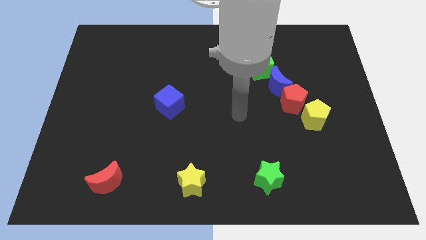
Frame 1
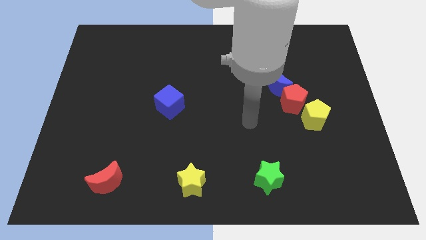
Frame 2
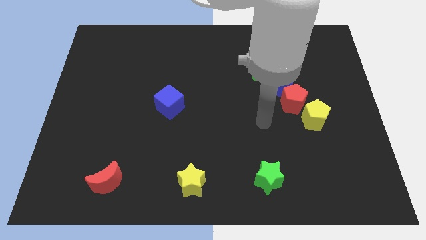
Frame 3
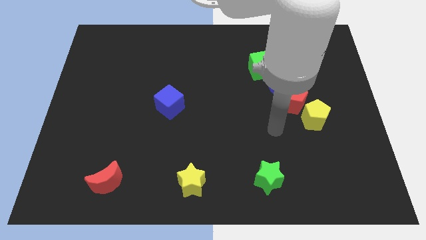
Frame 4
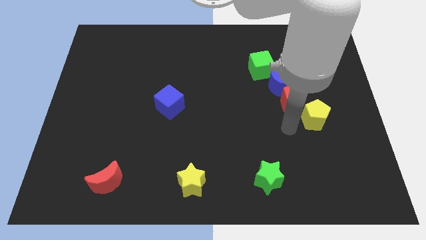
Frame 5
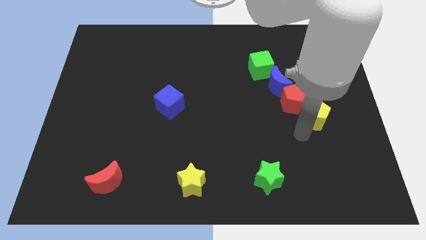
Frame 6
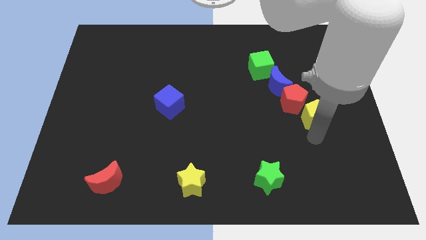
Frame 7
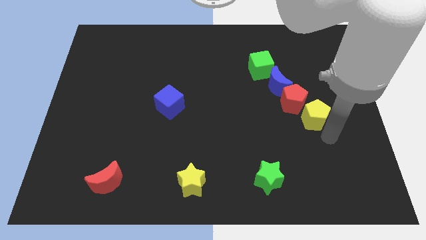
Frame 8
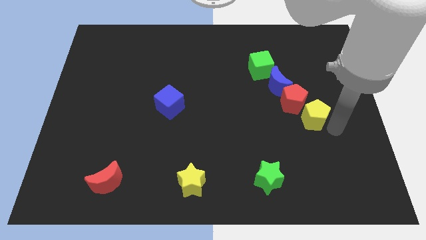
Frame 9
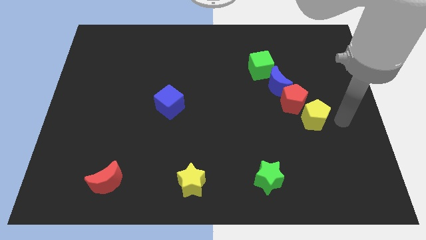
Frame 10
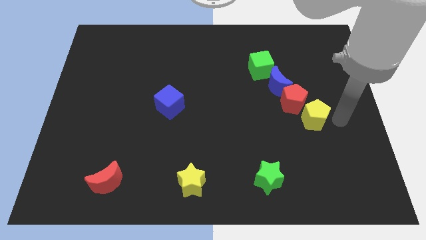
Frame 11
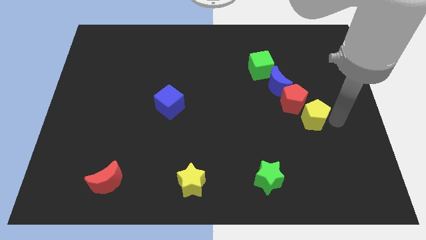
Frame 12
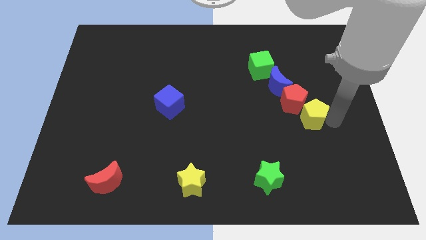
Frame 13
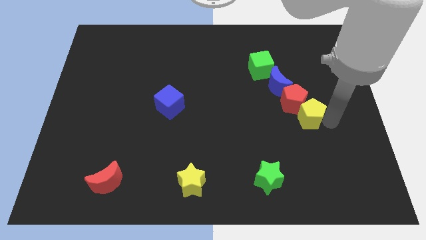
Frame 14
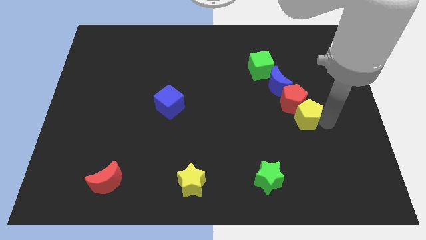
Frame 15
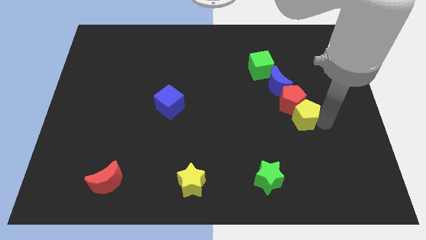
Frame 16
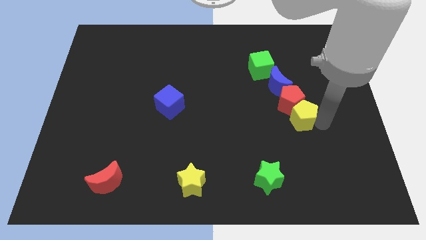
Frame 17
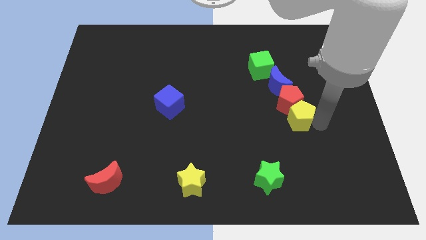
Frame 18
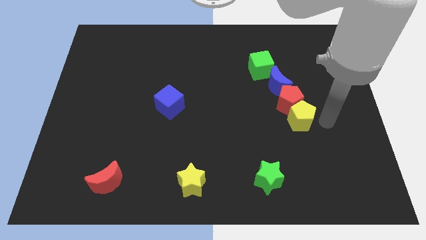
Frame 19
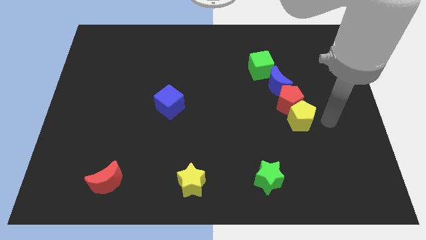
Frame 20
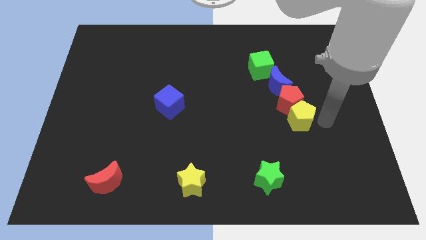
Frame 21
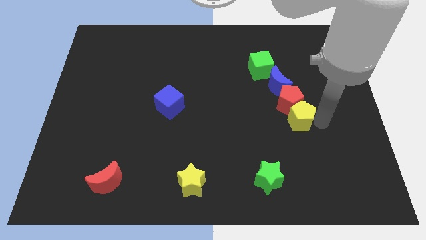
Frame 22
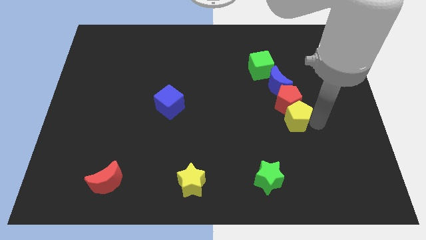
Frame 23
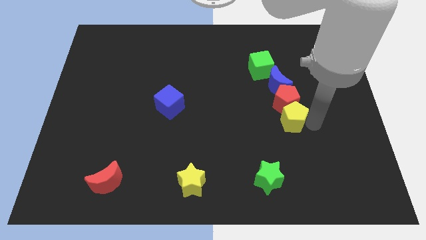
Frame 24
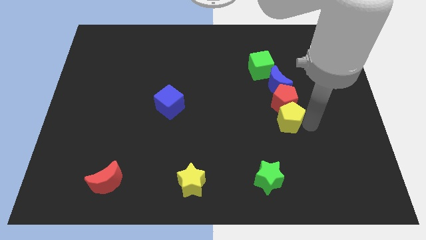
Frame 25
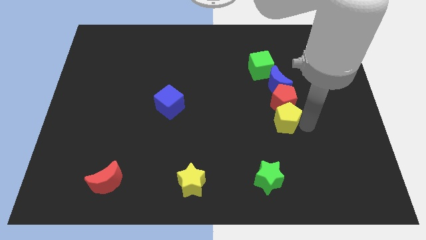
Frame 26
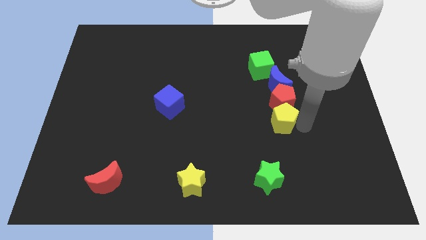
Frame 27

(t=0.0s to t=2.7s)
push the yellow pentagon left slightly

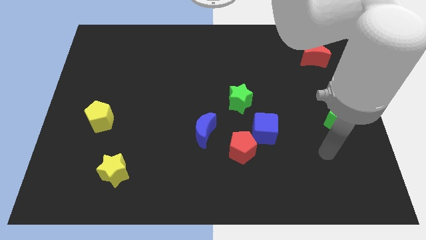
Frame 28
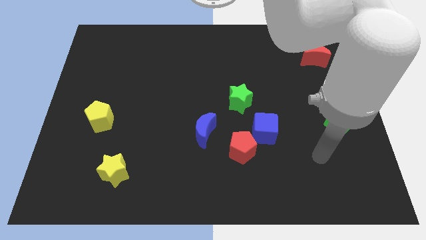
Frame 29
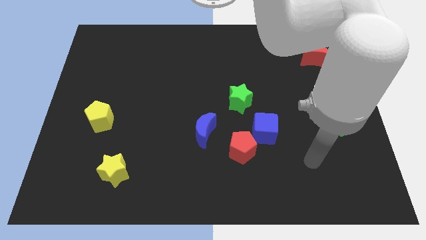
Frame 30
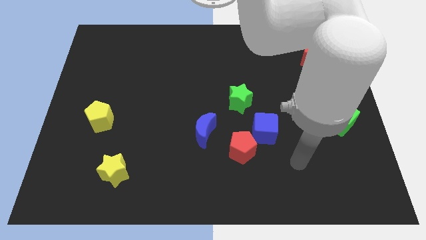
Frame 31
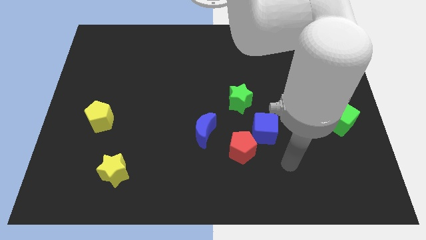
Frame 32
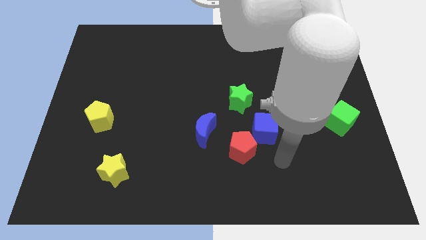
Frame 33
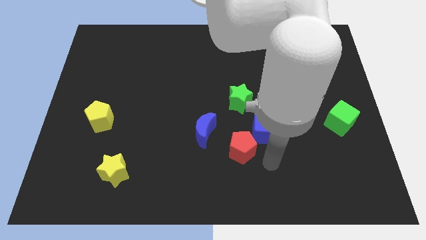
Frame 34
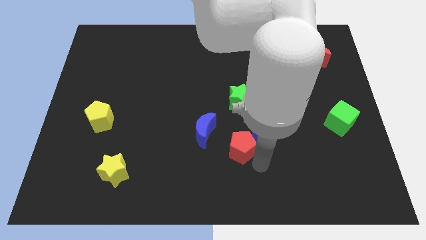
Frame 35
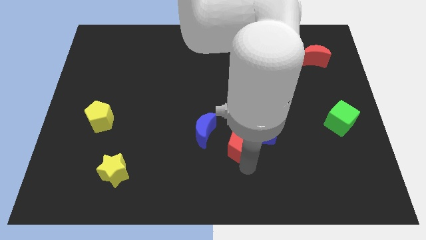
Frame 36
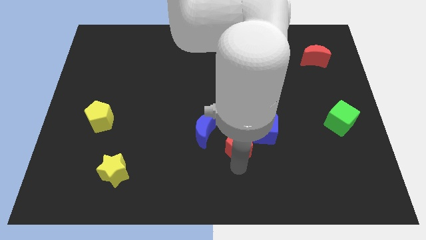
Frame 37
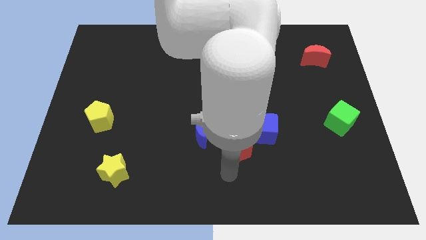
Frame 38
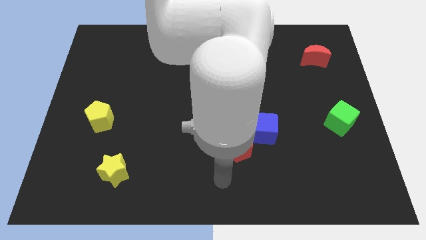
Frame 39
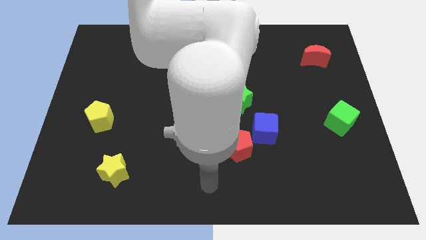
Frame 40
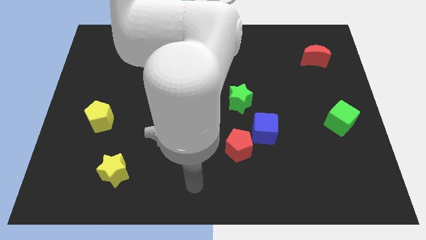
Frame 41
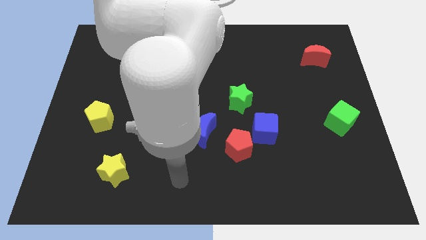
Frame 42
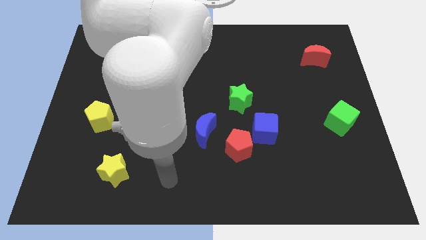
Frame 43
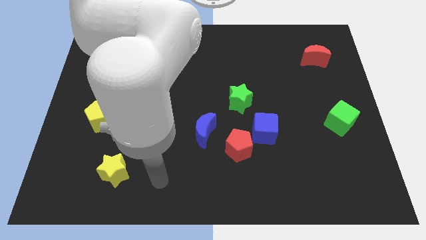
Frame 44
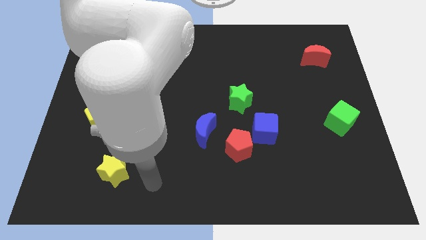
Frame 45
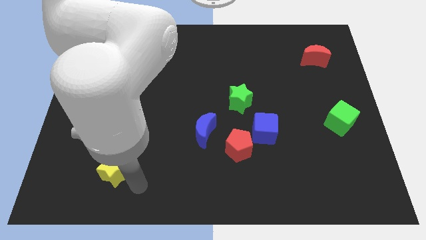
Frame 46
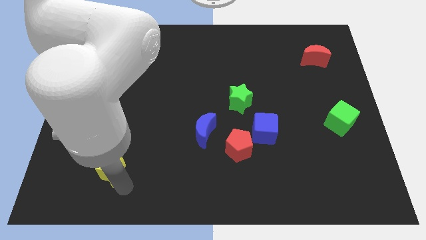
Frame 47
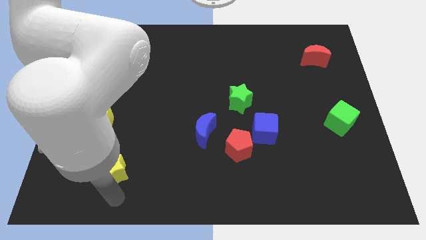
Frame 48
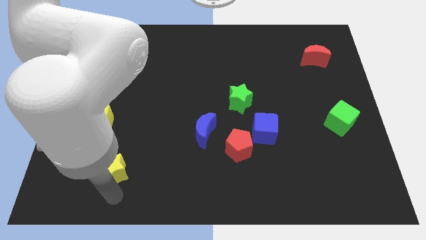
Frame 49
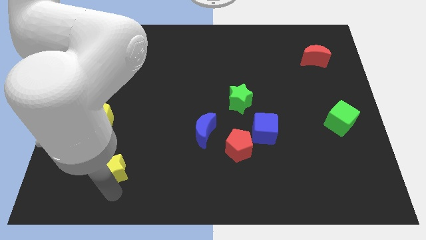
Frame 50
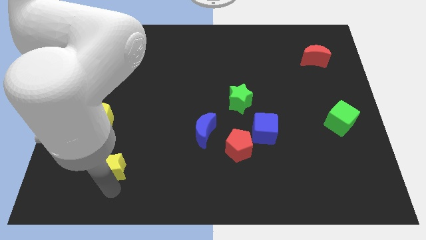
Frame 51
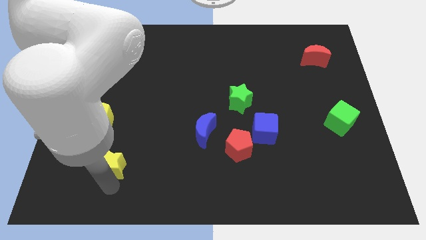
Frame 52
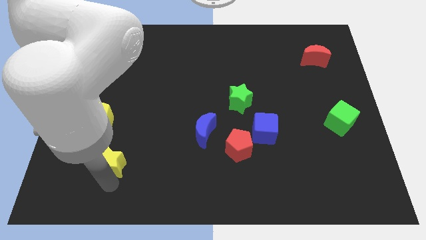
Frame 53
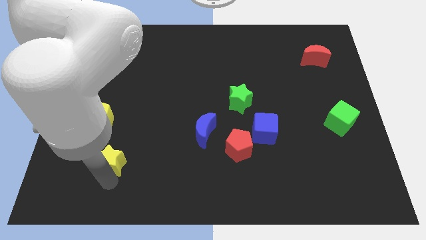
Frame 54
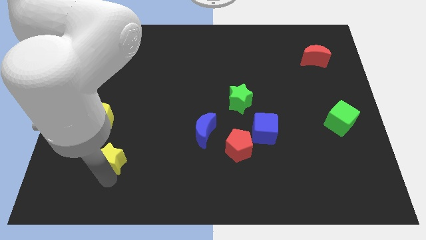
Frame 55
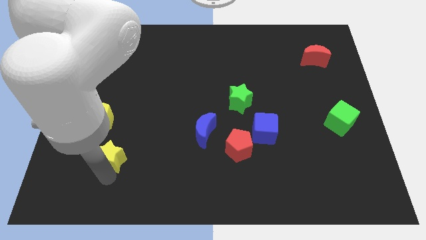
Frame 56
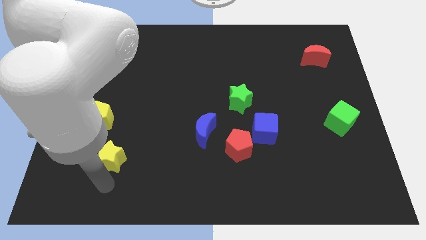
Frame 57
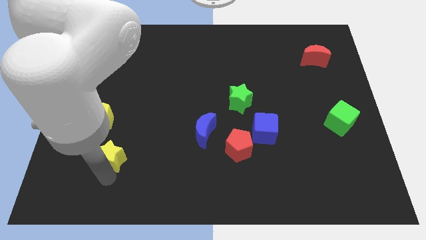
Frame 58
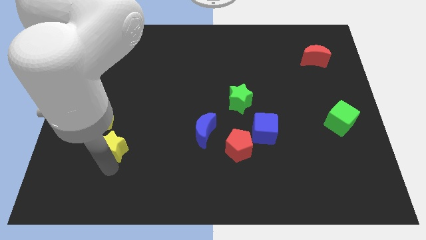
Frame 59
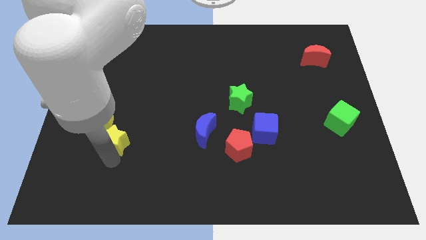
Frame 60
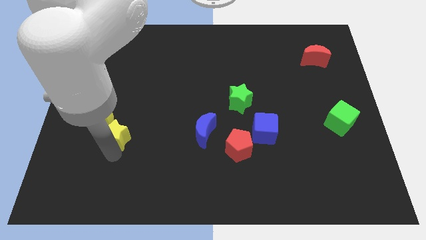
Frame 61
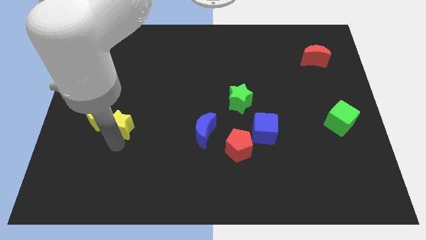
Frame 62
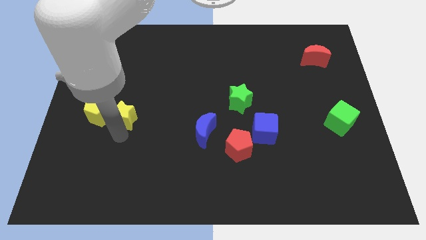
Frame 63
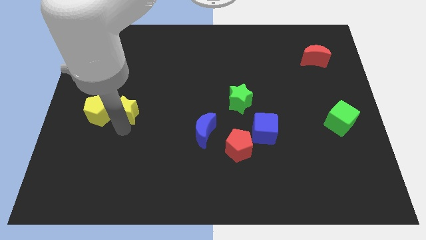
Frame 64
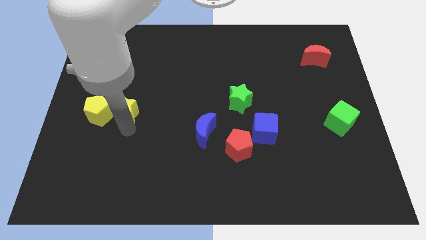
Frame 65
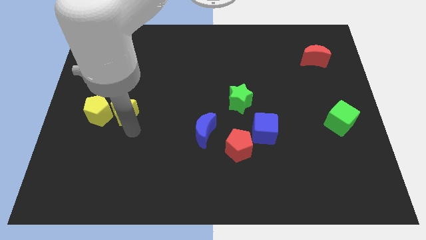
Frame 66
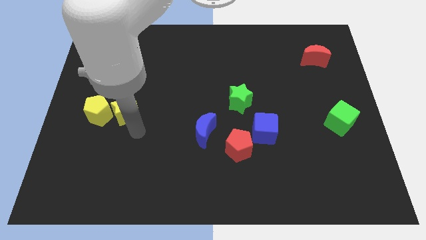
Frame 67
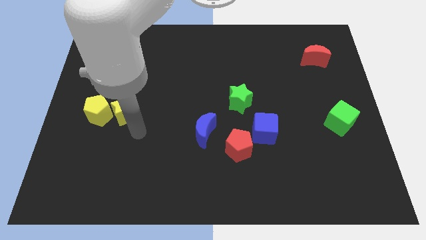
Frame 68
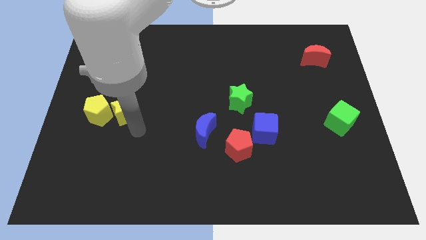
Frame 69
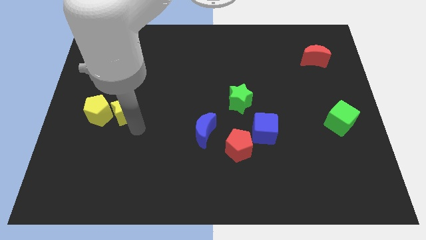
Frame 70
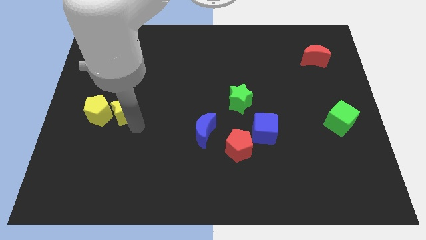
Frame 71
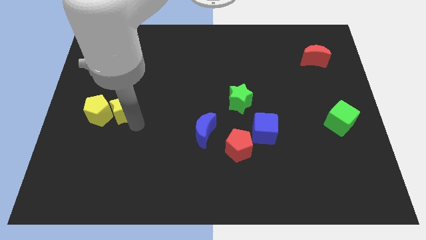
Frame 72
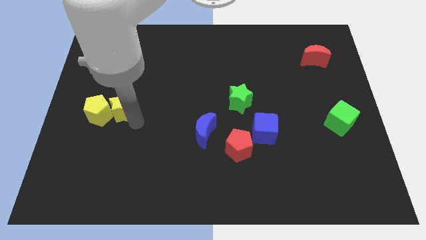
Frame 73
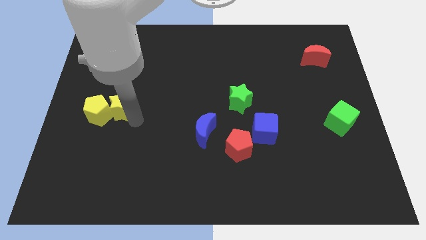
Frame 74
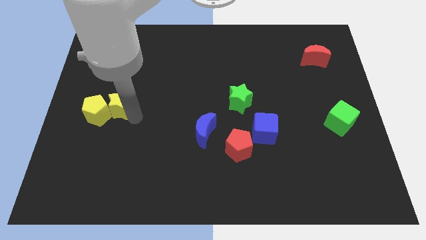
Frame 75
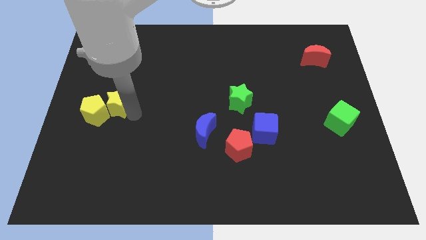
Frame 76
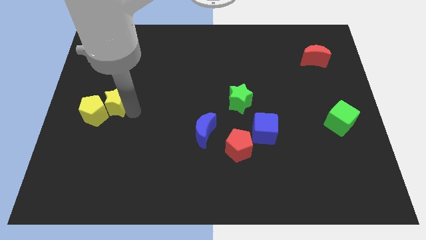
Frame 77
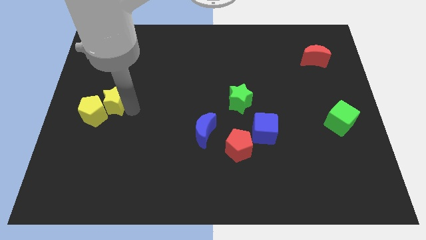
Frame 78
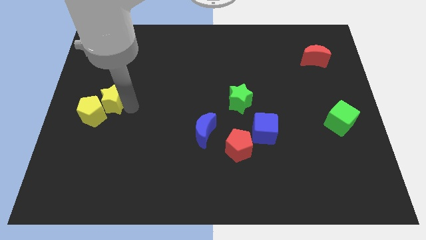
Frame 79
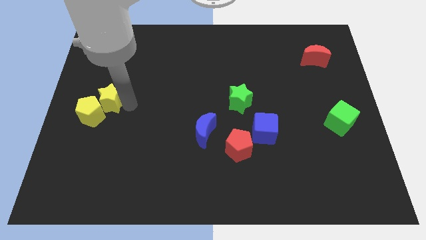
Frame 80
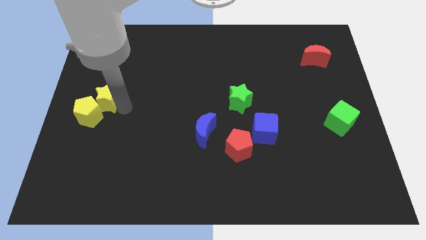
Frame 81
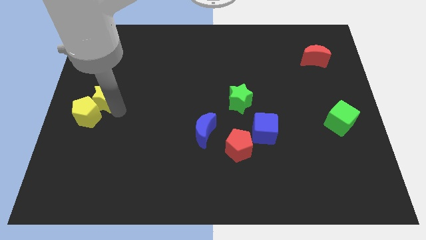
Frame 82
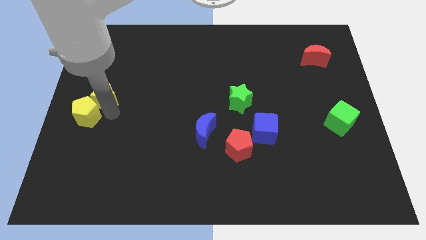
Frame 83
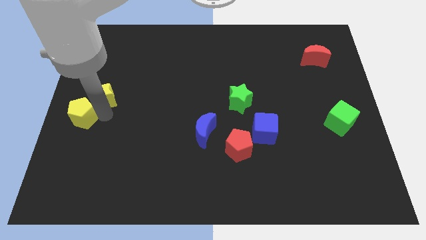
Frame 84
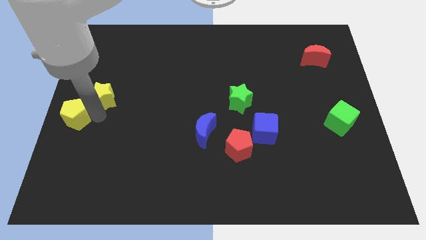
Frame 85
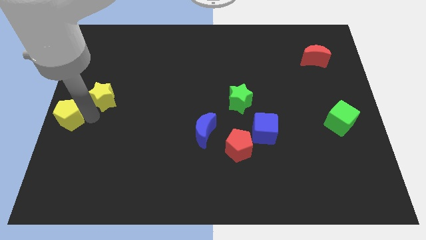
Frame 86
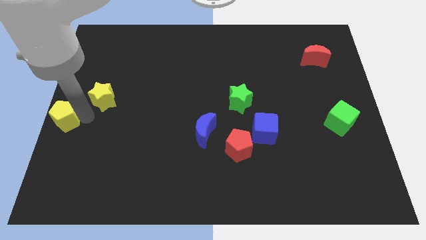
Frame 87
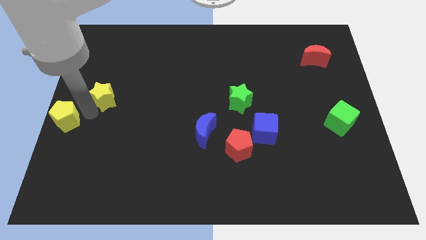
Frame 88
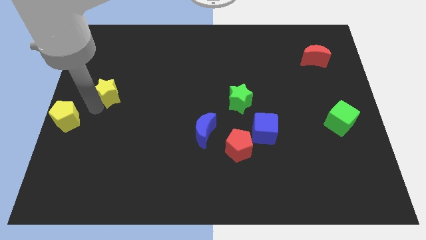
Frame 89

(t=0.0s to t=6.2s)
move the yellow star up
